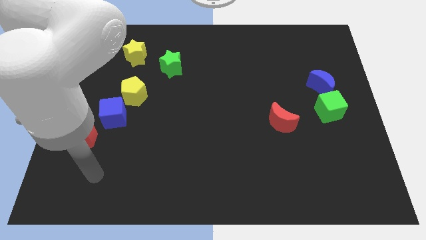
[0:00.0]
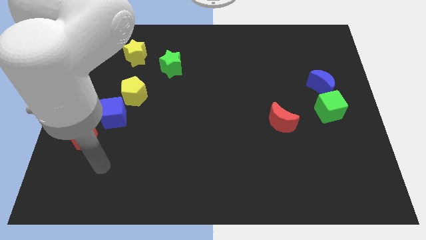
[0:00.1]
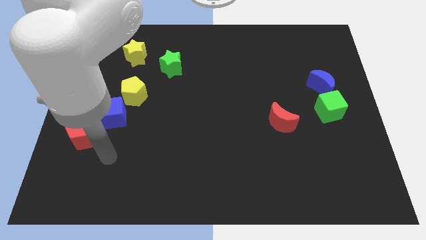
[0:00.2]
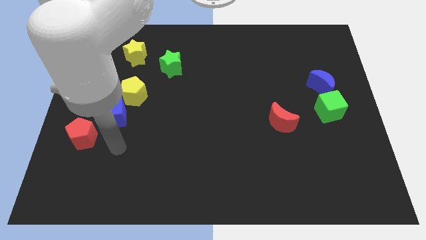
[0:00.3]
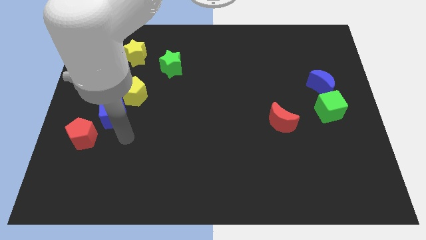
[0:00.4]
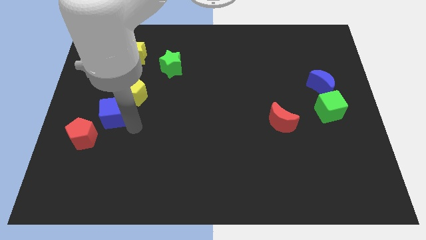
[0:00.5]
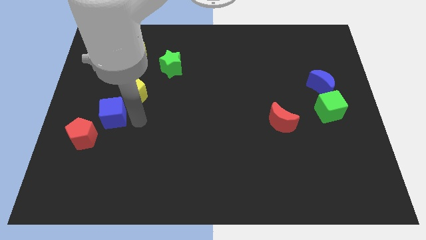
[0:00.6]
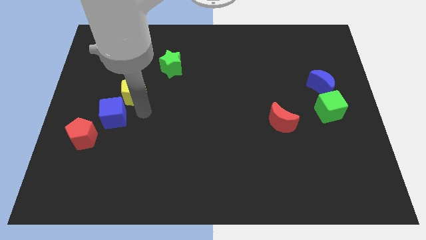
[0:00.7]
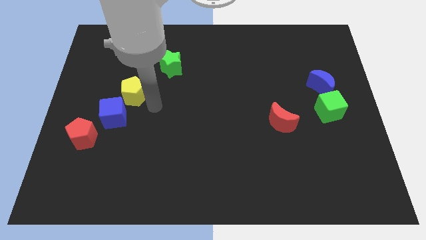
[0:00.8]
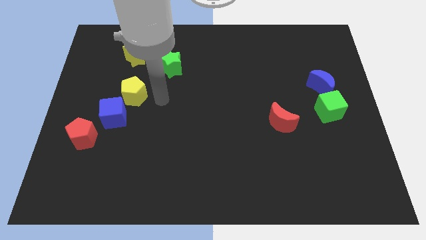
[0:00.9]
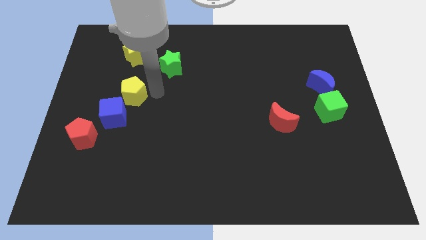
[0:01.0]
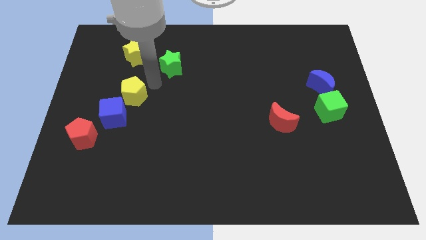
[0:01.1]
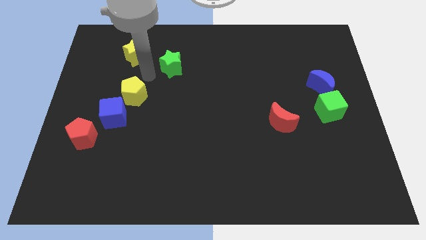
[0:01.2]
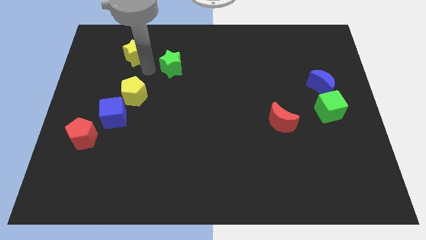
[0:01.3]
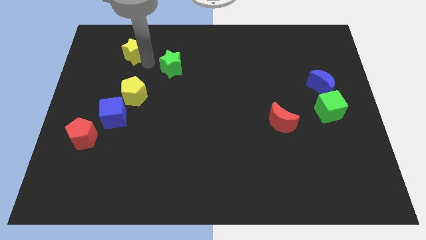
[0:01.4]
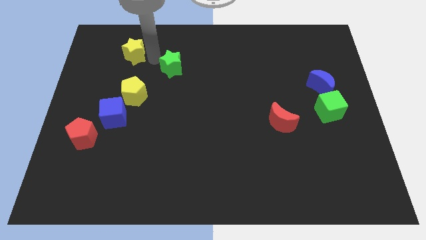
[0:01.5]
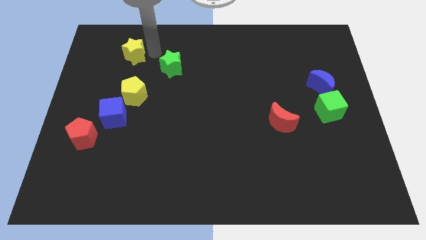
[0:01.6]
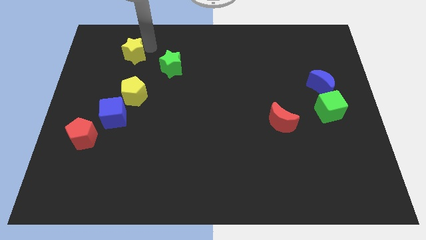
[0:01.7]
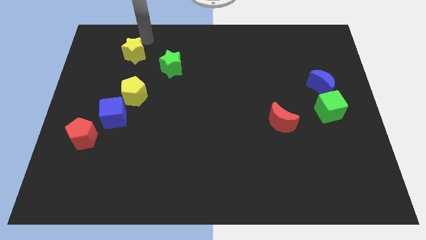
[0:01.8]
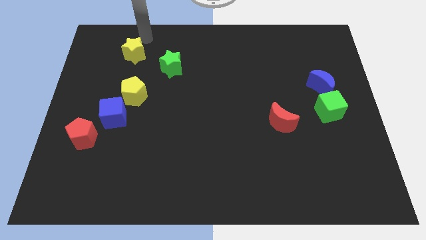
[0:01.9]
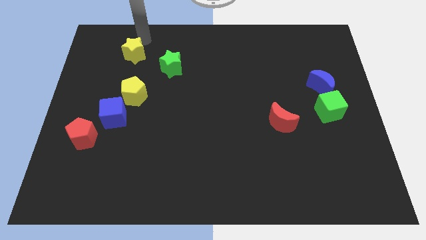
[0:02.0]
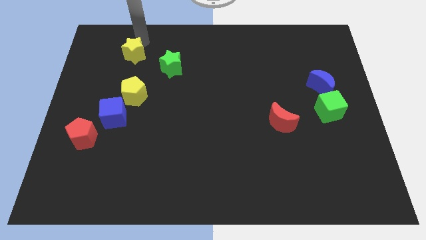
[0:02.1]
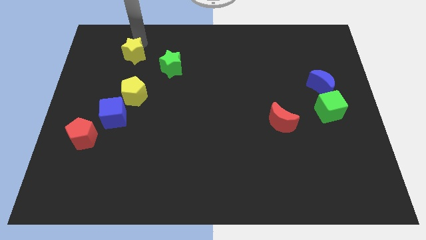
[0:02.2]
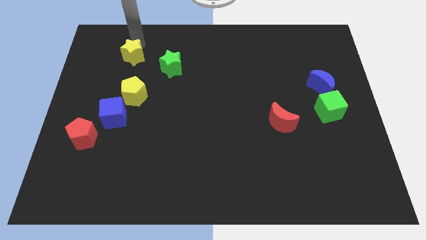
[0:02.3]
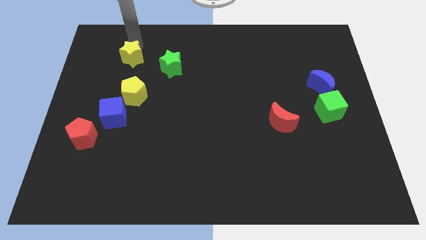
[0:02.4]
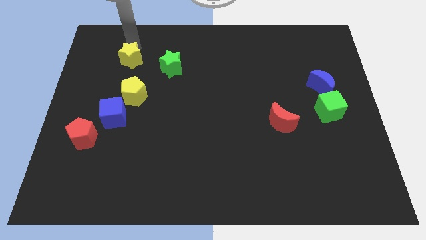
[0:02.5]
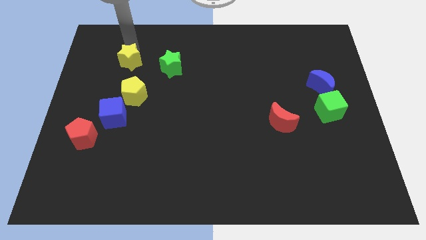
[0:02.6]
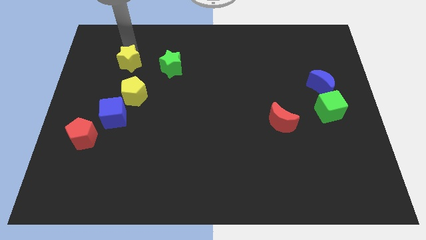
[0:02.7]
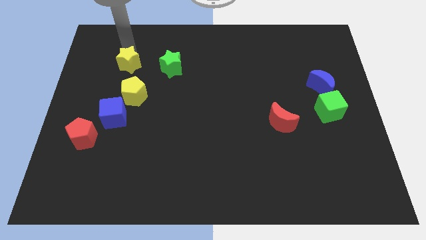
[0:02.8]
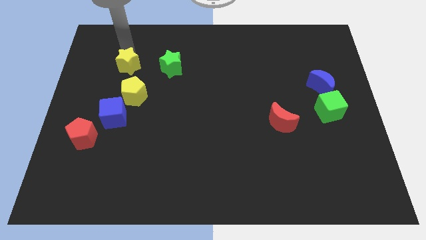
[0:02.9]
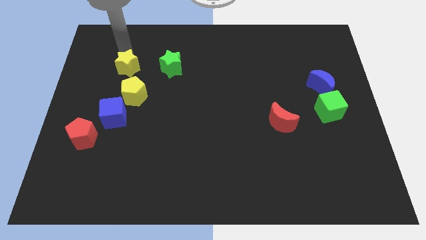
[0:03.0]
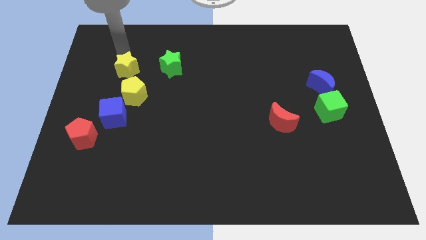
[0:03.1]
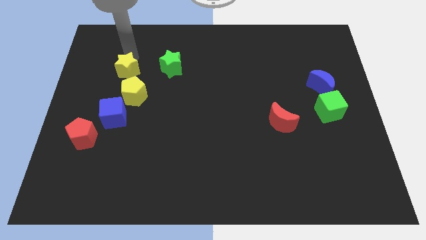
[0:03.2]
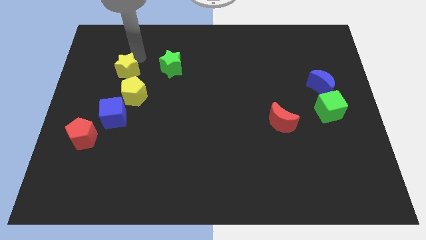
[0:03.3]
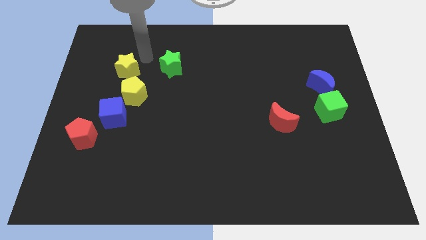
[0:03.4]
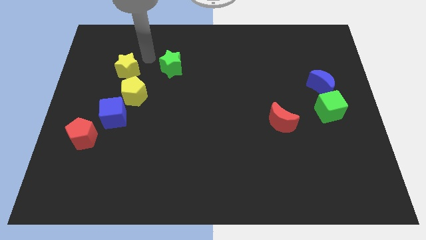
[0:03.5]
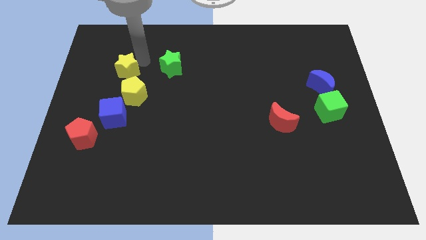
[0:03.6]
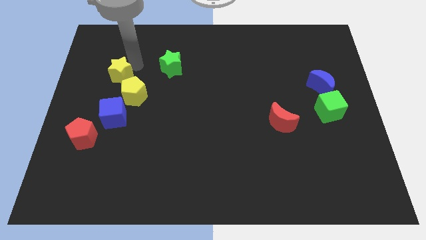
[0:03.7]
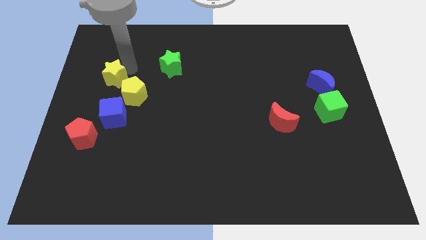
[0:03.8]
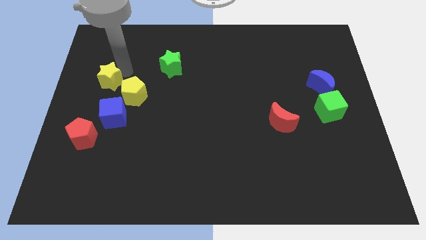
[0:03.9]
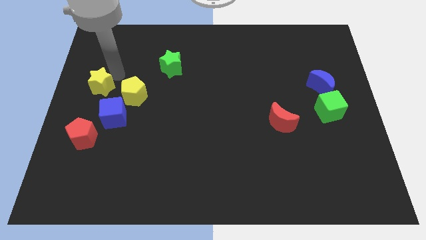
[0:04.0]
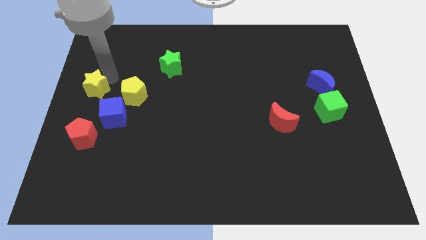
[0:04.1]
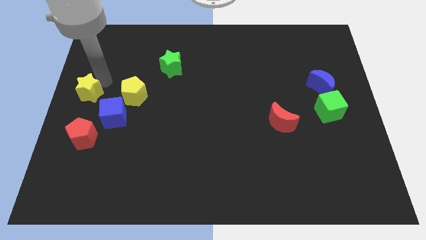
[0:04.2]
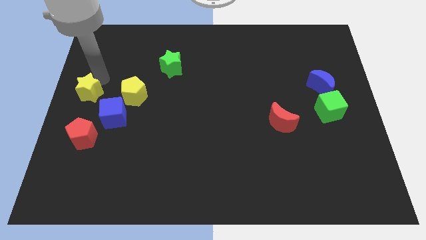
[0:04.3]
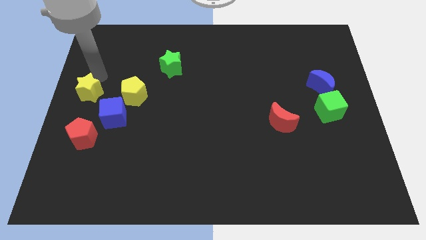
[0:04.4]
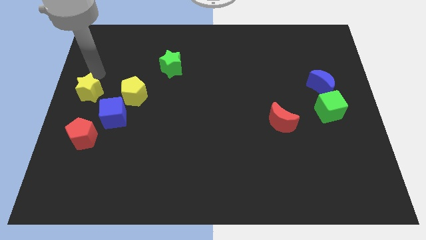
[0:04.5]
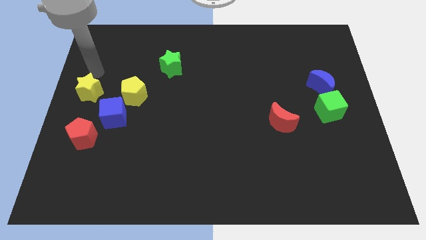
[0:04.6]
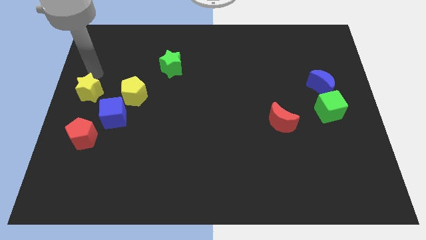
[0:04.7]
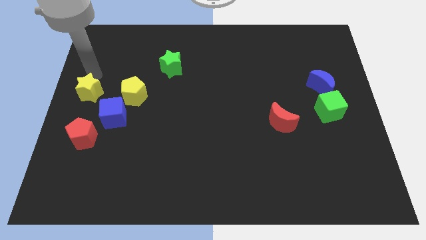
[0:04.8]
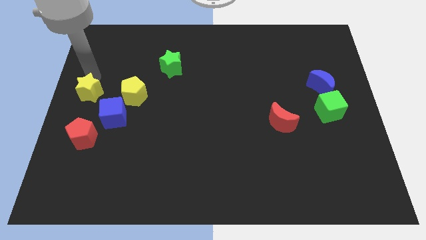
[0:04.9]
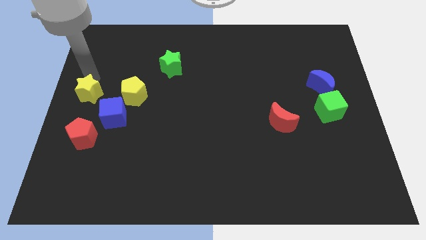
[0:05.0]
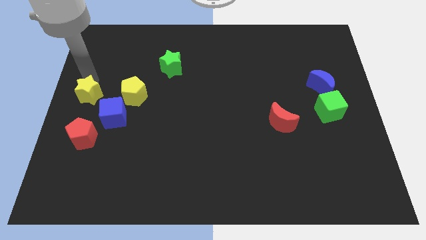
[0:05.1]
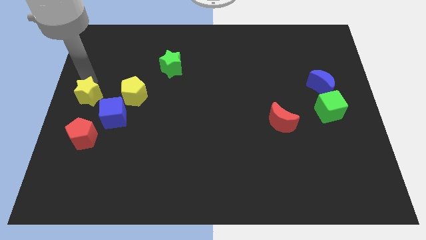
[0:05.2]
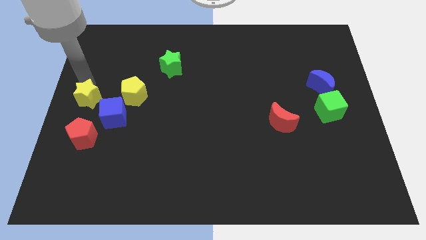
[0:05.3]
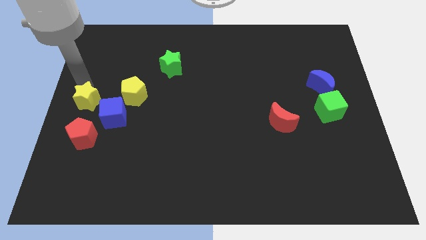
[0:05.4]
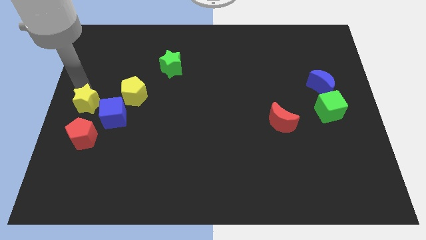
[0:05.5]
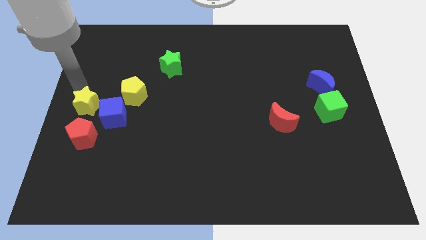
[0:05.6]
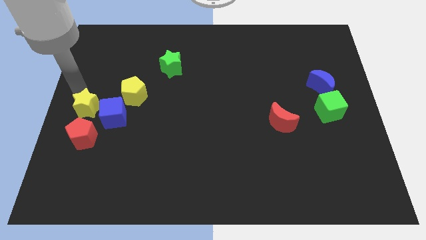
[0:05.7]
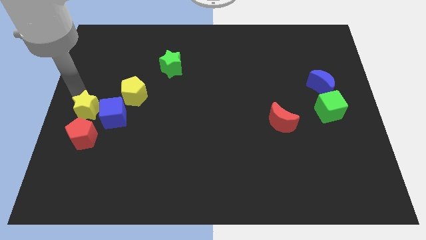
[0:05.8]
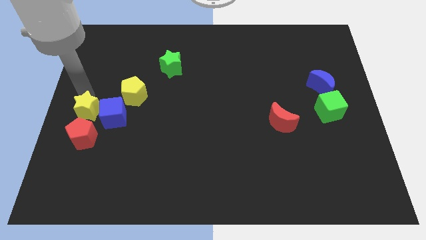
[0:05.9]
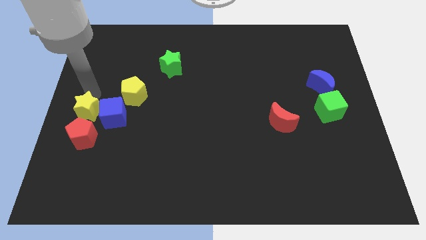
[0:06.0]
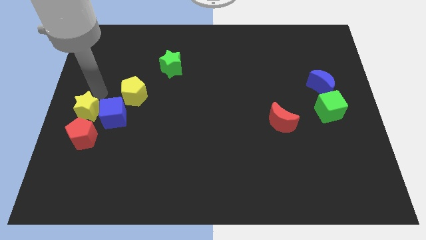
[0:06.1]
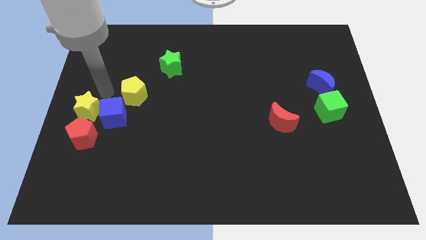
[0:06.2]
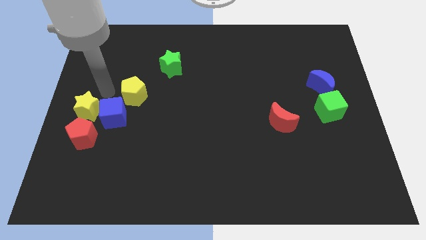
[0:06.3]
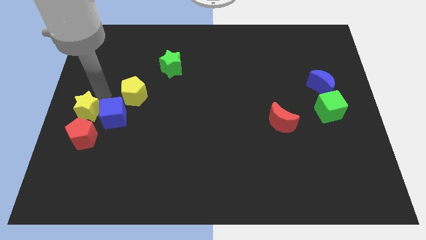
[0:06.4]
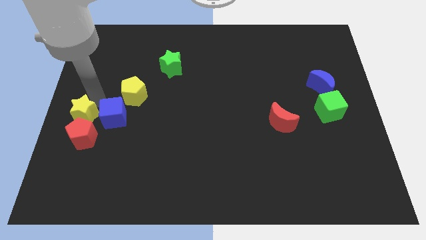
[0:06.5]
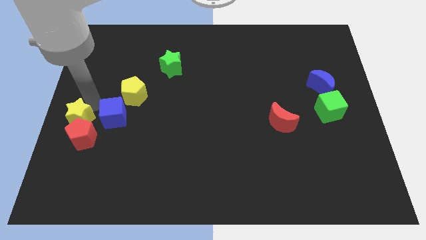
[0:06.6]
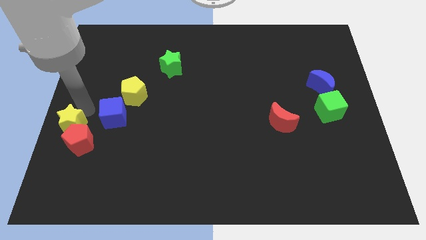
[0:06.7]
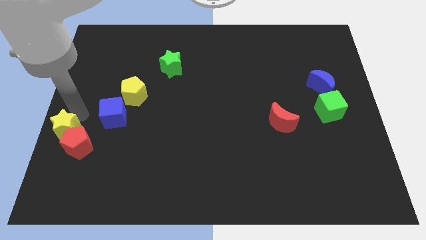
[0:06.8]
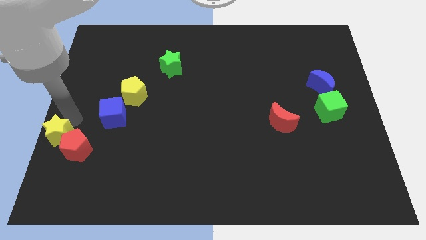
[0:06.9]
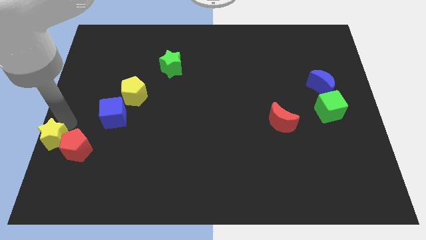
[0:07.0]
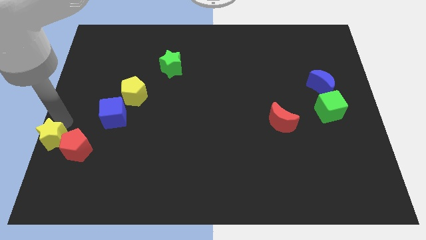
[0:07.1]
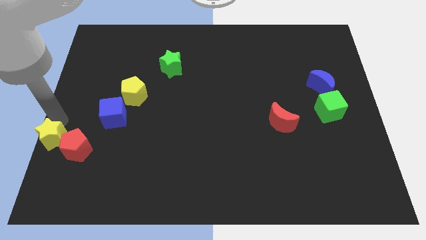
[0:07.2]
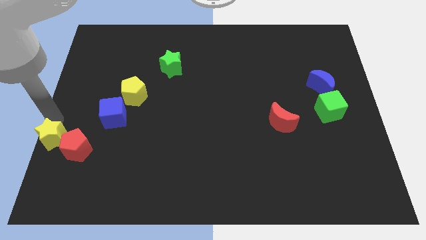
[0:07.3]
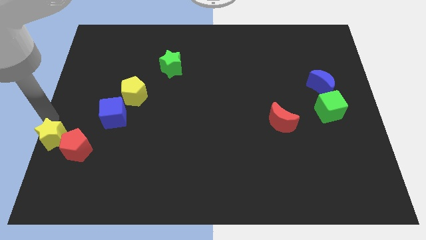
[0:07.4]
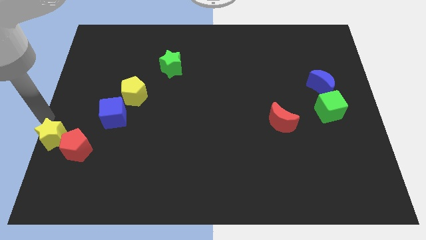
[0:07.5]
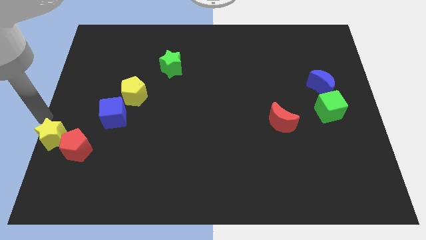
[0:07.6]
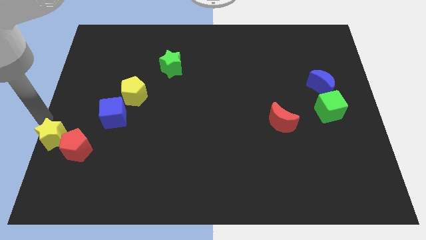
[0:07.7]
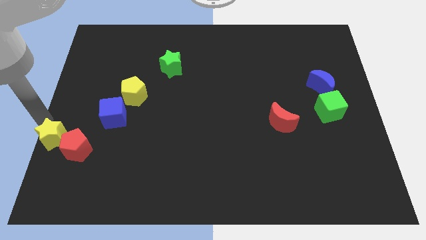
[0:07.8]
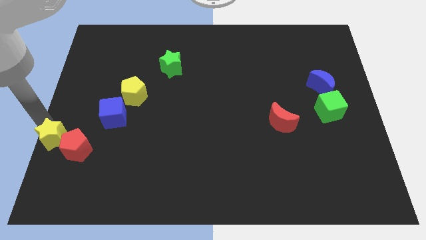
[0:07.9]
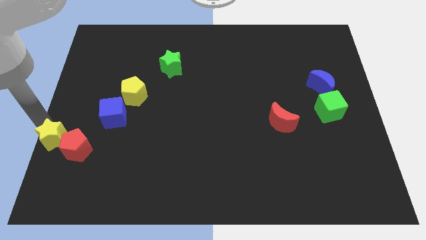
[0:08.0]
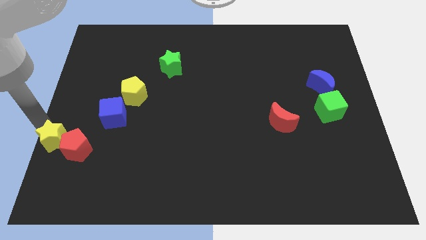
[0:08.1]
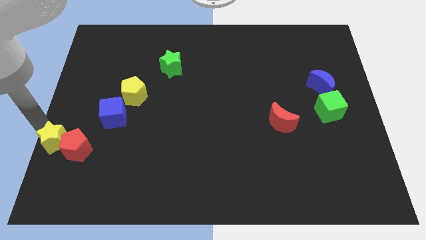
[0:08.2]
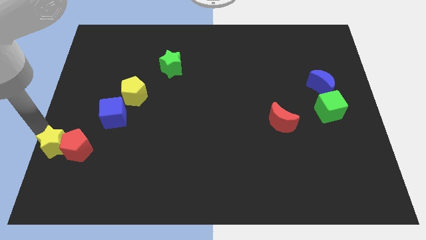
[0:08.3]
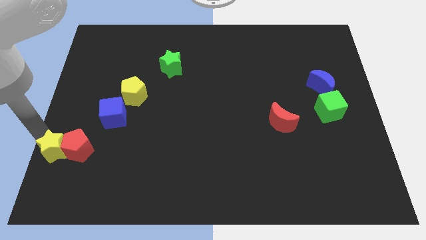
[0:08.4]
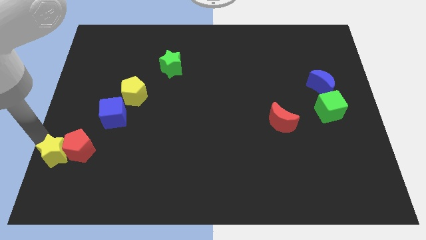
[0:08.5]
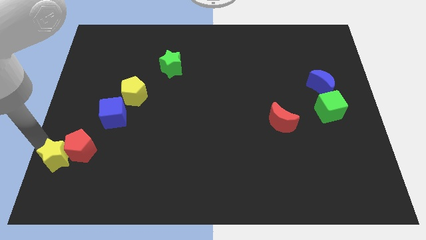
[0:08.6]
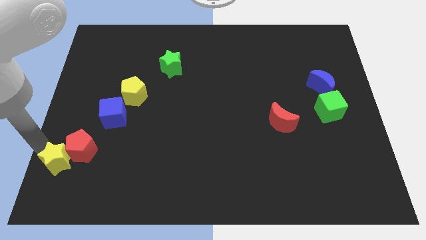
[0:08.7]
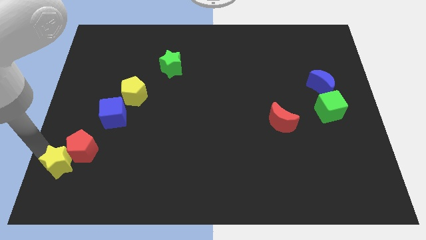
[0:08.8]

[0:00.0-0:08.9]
move the yellow star below the red pentagon
